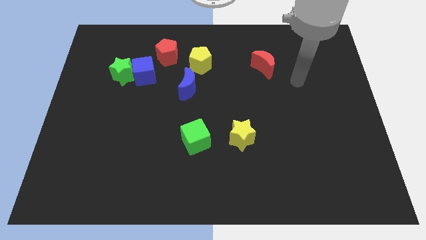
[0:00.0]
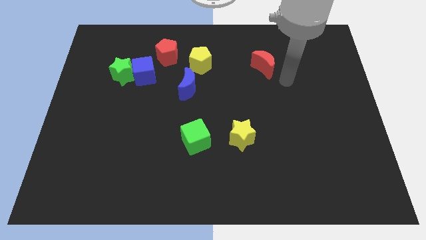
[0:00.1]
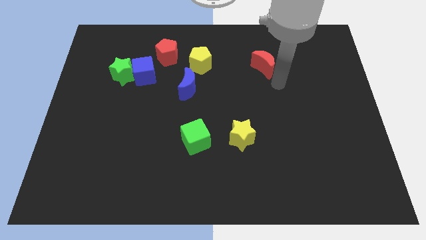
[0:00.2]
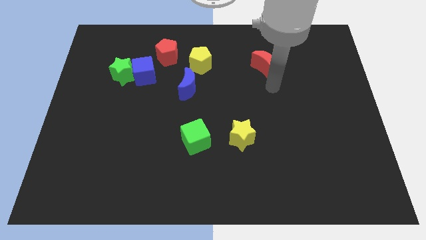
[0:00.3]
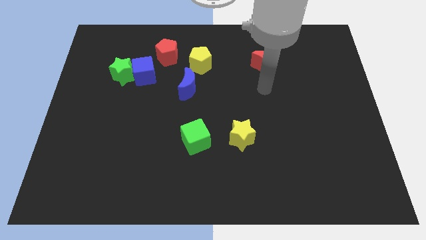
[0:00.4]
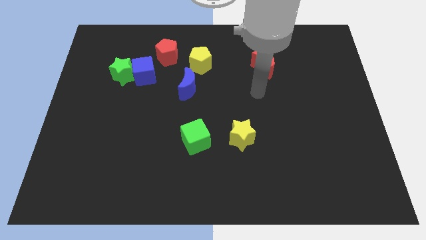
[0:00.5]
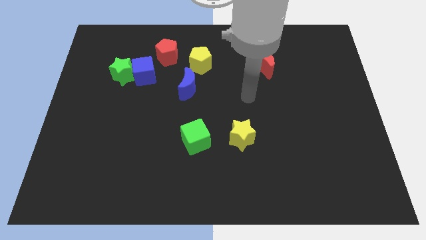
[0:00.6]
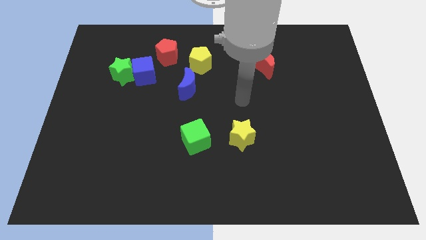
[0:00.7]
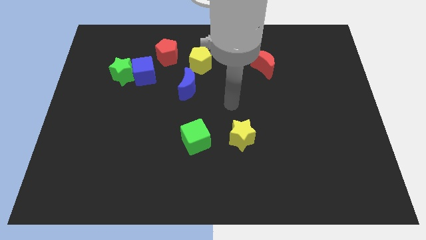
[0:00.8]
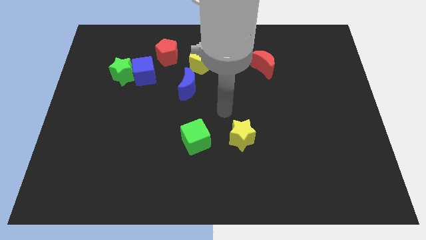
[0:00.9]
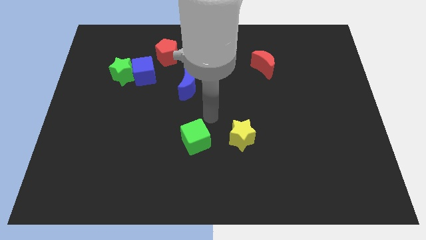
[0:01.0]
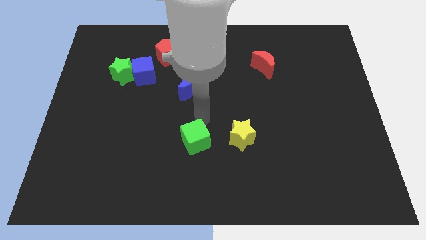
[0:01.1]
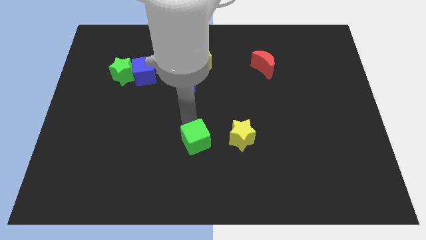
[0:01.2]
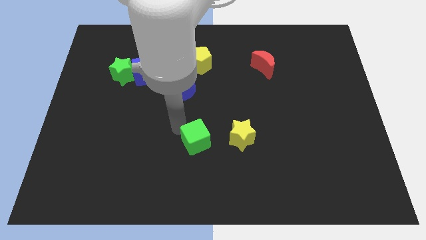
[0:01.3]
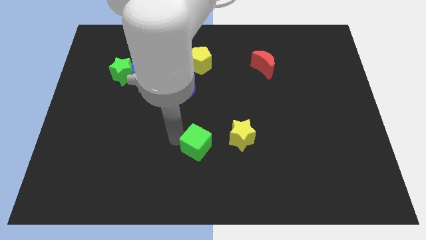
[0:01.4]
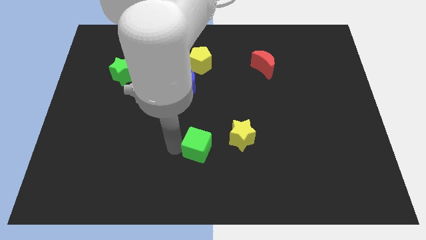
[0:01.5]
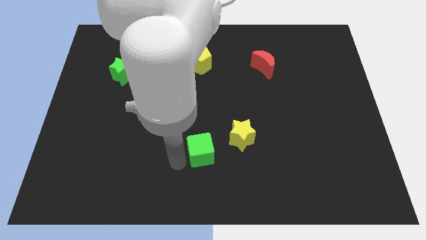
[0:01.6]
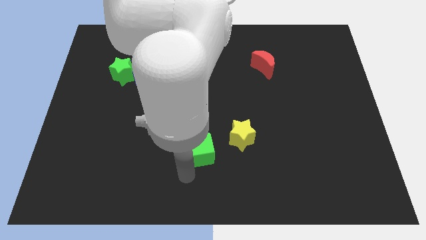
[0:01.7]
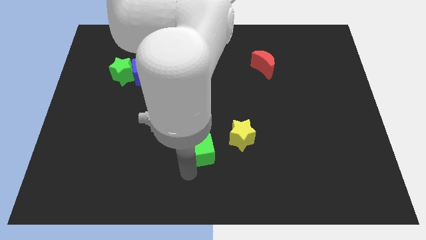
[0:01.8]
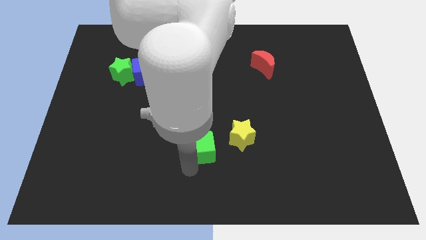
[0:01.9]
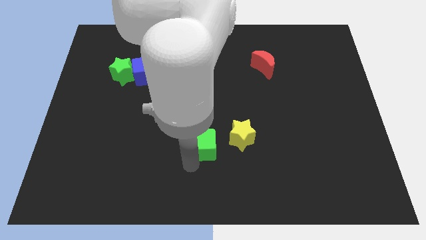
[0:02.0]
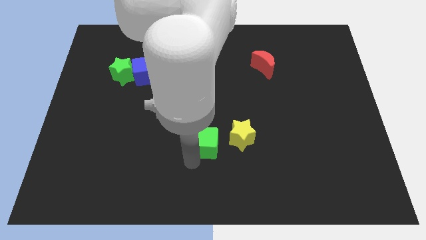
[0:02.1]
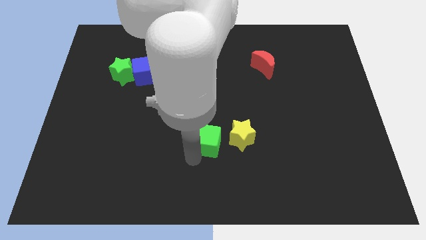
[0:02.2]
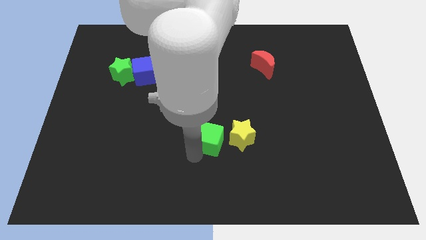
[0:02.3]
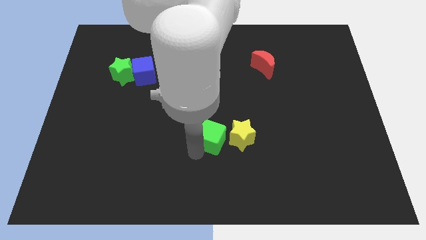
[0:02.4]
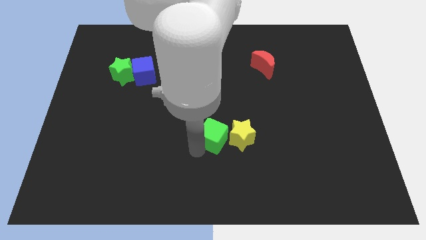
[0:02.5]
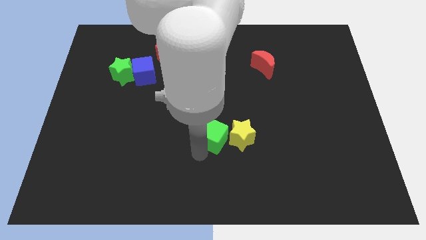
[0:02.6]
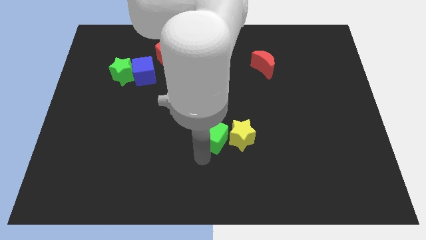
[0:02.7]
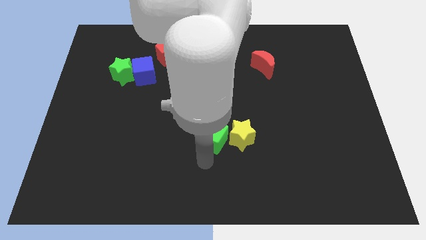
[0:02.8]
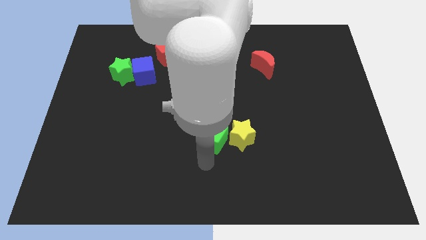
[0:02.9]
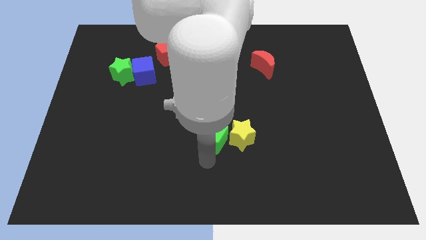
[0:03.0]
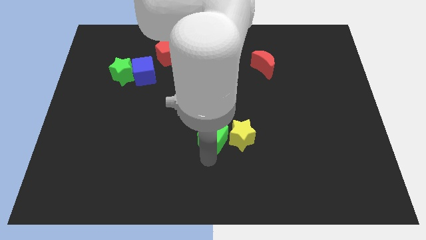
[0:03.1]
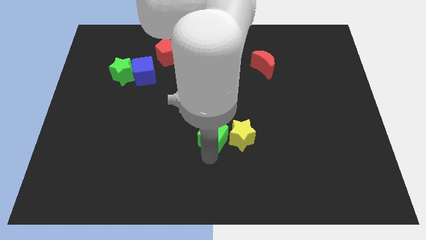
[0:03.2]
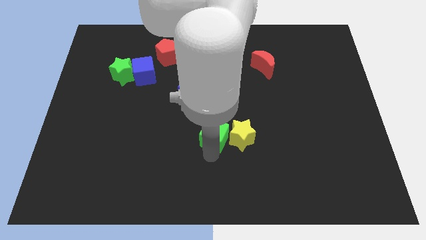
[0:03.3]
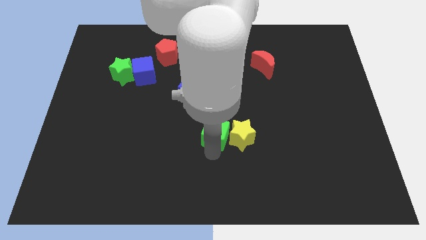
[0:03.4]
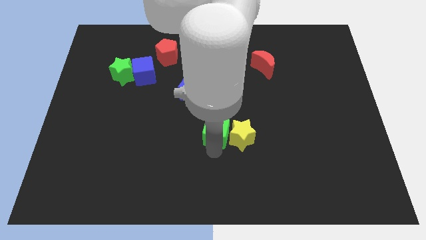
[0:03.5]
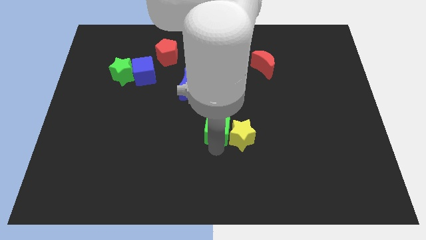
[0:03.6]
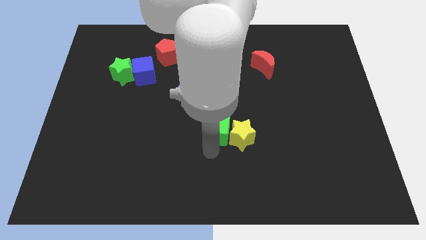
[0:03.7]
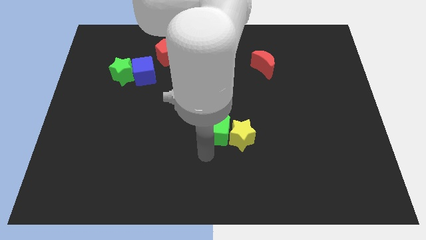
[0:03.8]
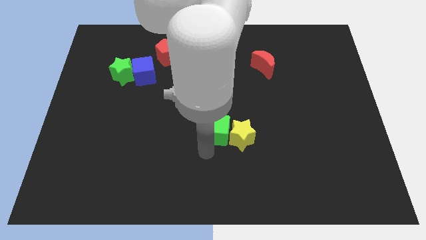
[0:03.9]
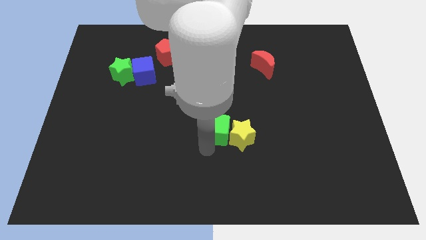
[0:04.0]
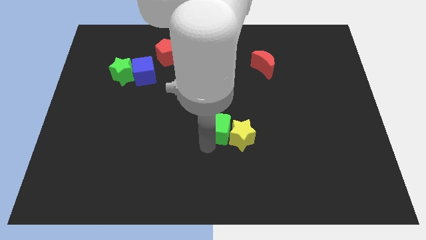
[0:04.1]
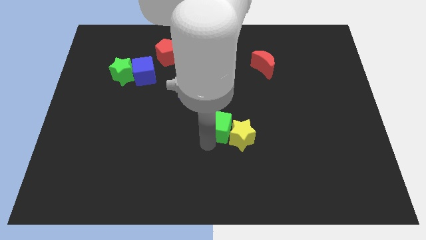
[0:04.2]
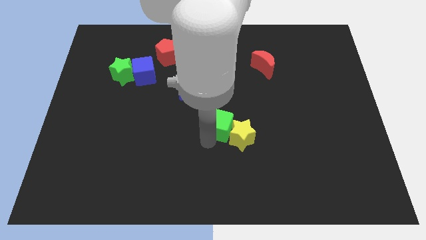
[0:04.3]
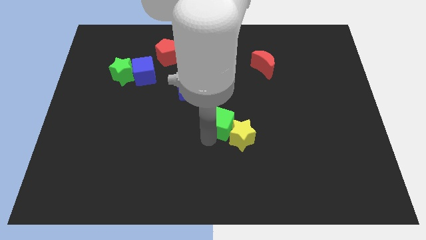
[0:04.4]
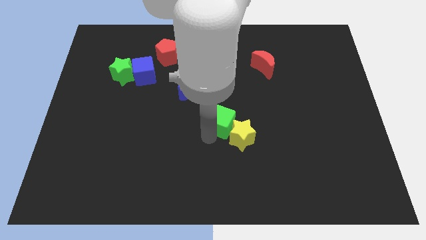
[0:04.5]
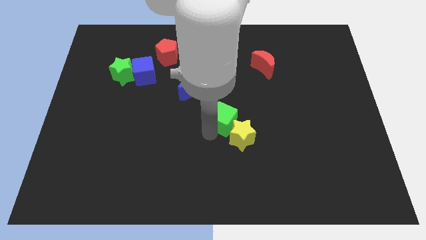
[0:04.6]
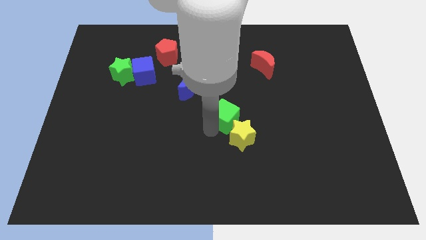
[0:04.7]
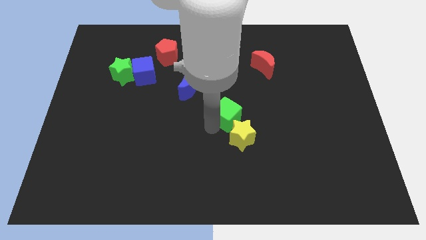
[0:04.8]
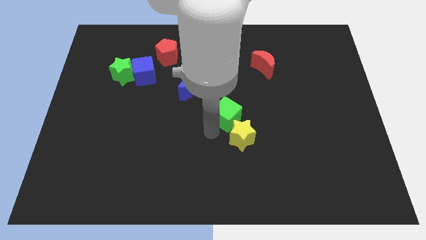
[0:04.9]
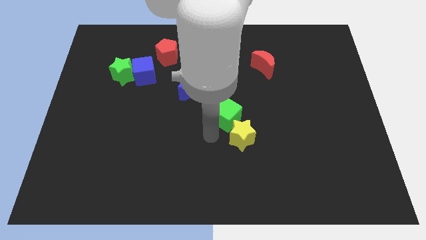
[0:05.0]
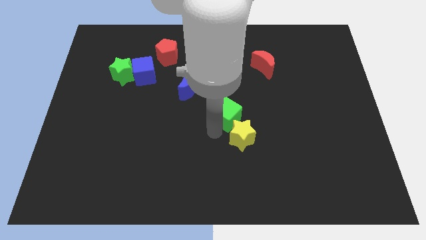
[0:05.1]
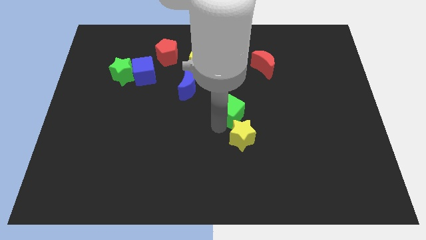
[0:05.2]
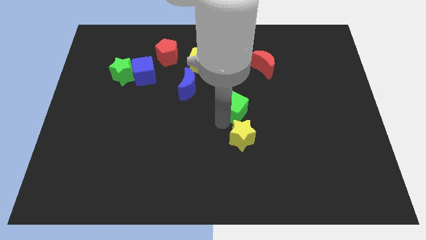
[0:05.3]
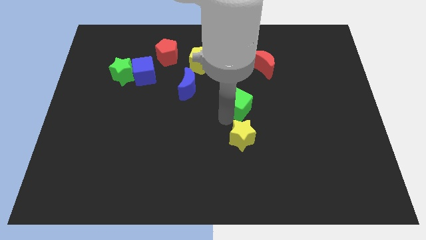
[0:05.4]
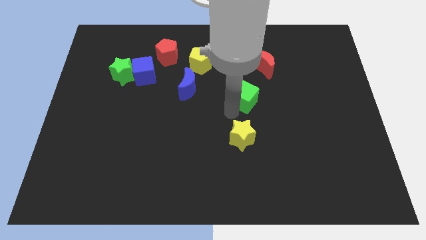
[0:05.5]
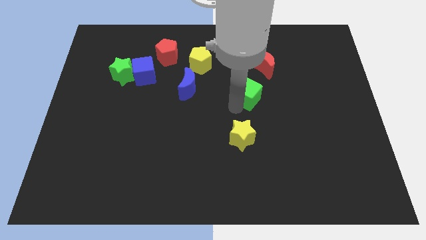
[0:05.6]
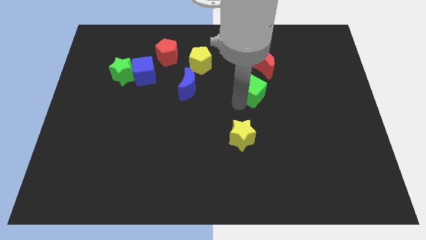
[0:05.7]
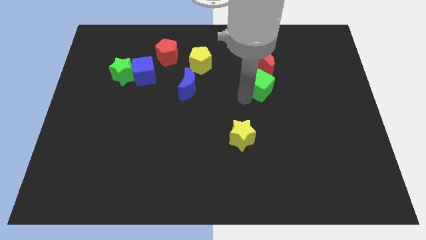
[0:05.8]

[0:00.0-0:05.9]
push the green cube up and to the right diagonally

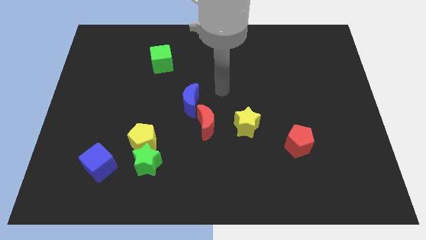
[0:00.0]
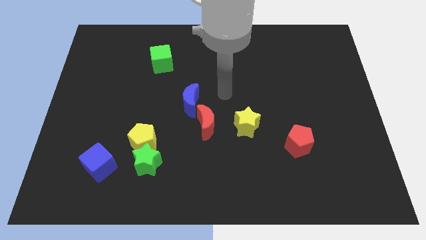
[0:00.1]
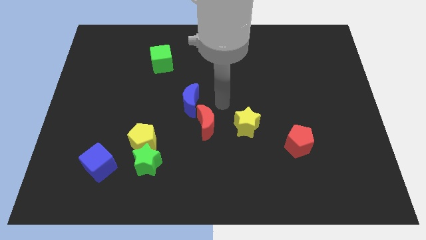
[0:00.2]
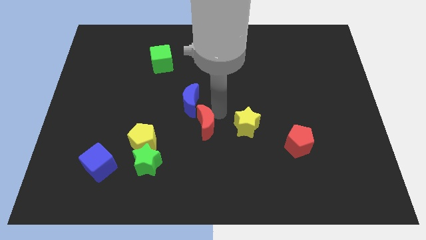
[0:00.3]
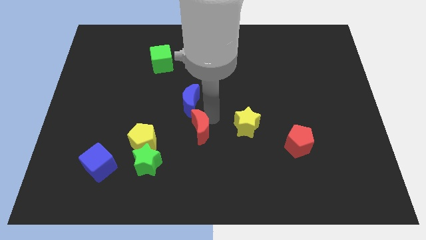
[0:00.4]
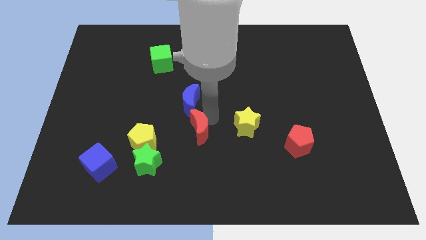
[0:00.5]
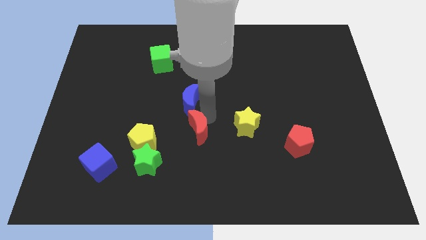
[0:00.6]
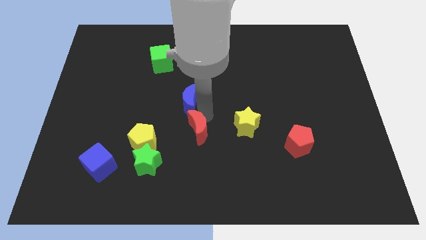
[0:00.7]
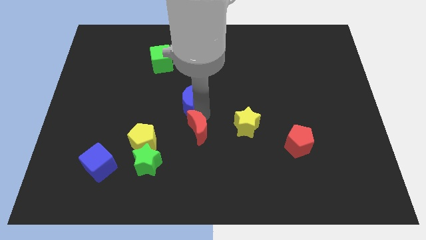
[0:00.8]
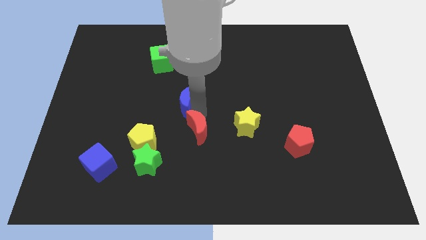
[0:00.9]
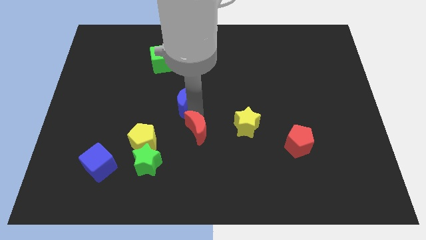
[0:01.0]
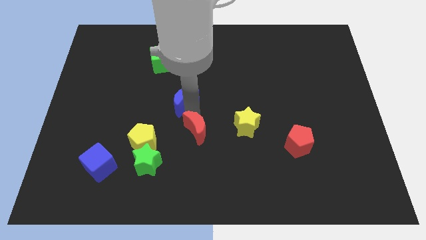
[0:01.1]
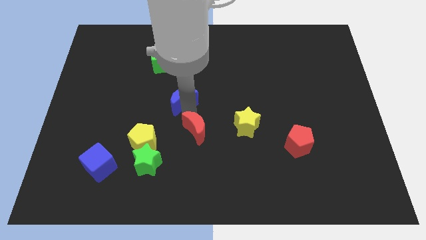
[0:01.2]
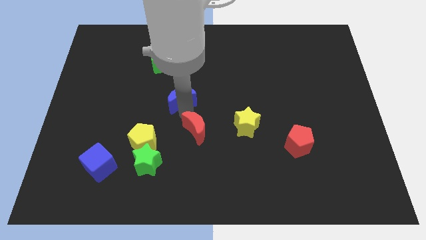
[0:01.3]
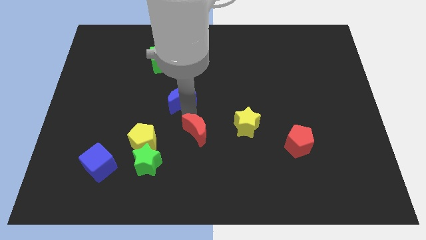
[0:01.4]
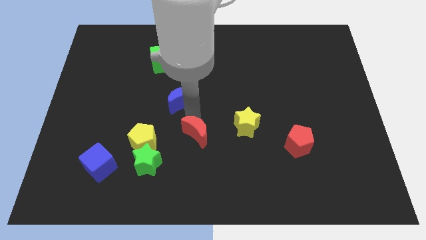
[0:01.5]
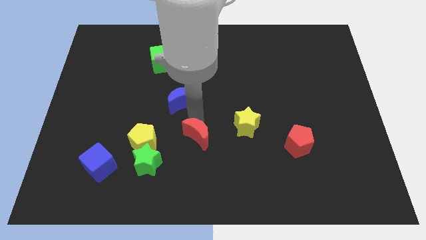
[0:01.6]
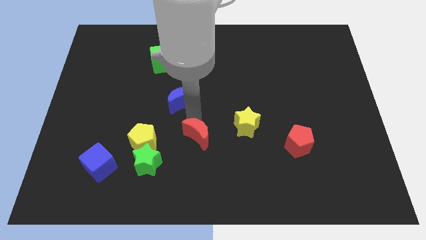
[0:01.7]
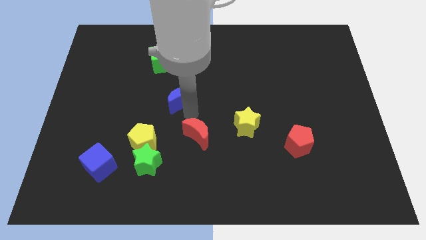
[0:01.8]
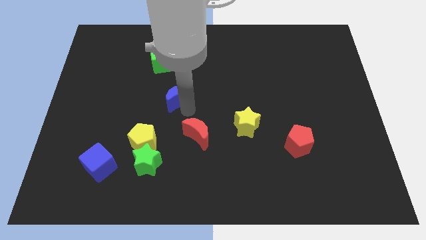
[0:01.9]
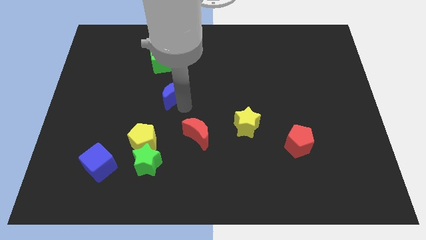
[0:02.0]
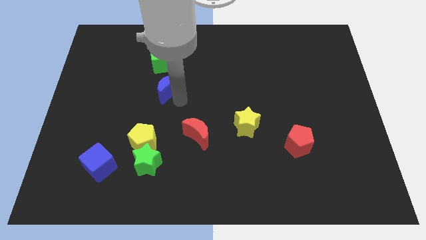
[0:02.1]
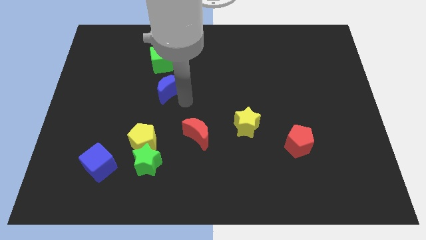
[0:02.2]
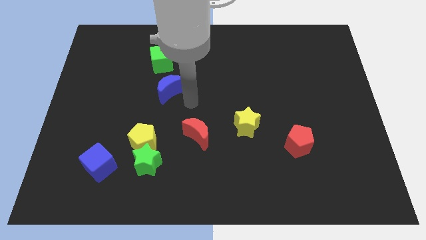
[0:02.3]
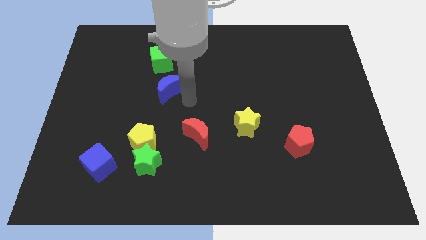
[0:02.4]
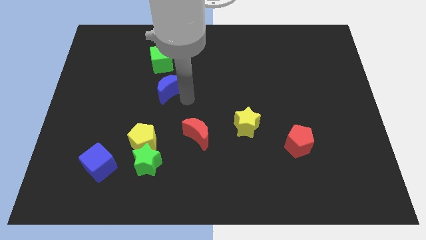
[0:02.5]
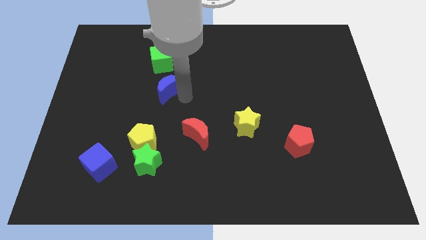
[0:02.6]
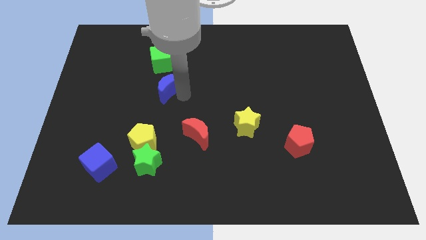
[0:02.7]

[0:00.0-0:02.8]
push the blue moon a little bit up and to the left
